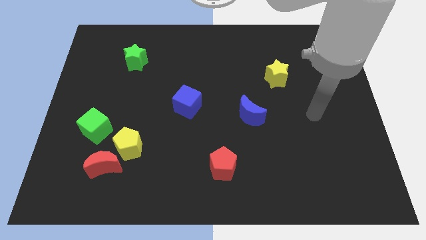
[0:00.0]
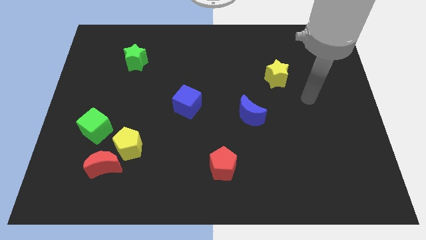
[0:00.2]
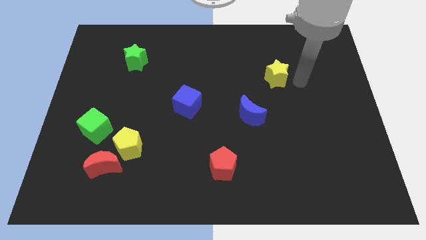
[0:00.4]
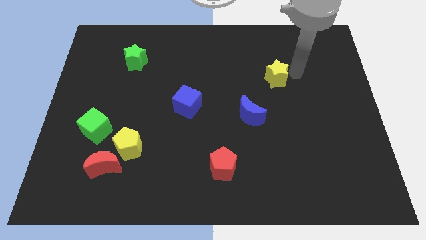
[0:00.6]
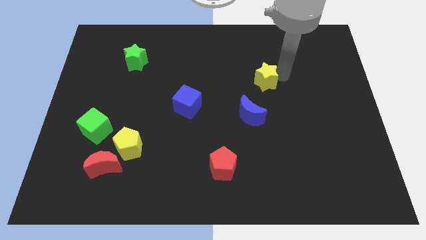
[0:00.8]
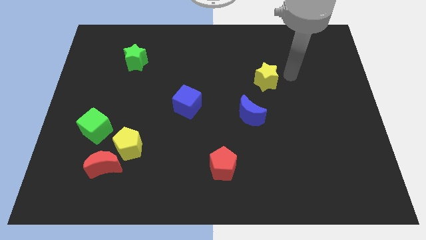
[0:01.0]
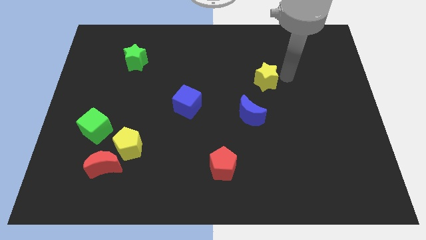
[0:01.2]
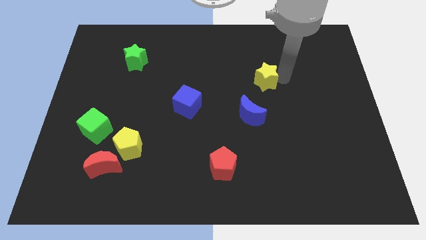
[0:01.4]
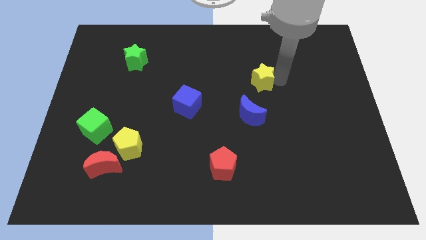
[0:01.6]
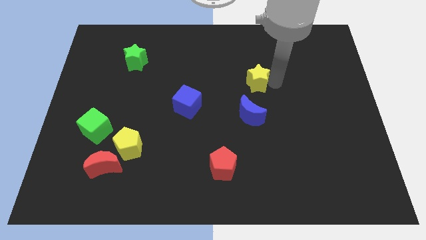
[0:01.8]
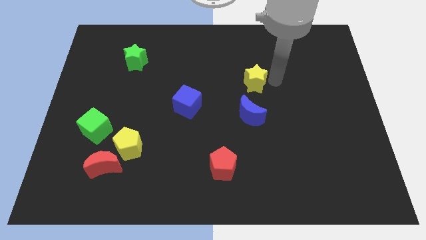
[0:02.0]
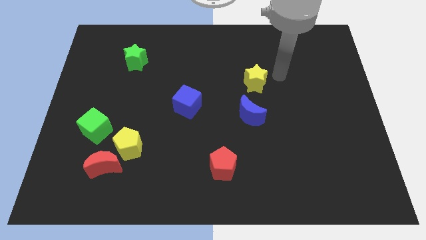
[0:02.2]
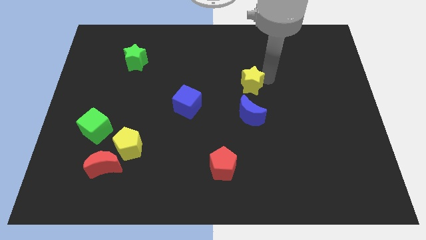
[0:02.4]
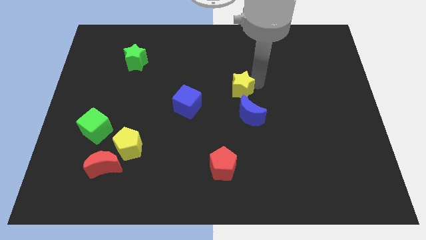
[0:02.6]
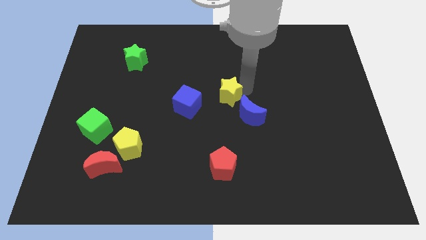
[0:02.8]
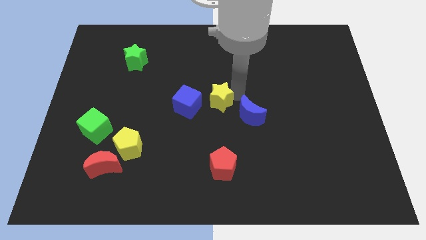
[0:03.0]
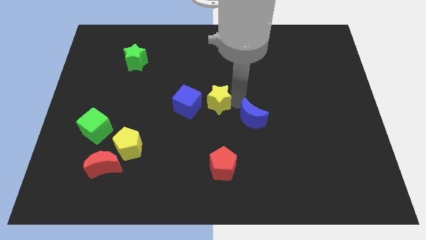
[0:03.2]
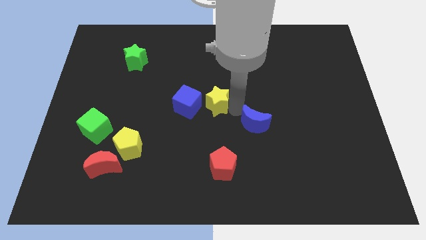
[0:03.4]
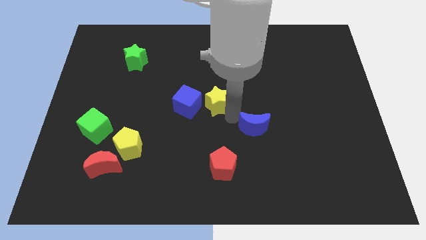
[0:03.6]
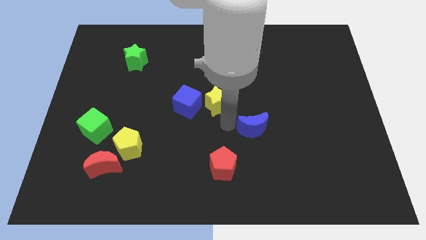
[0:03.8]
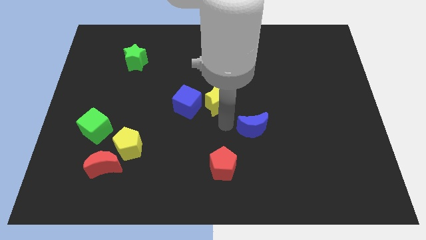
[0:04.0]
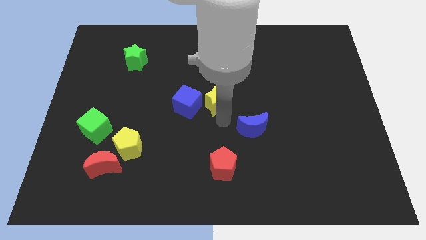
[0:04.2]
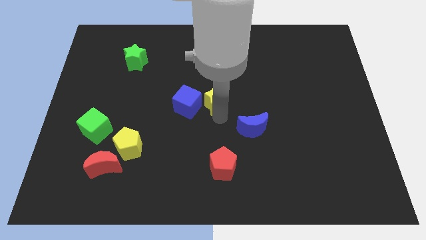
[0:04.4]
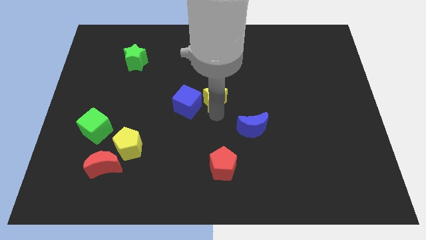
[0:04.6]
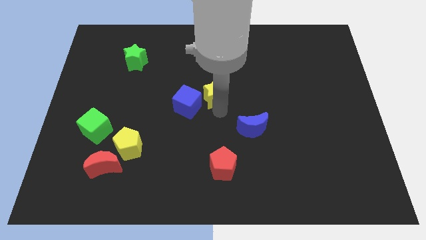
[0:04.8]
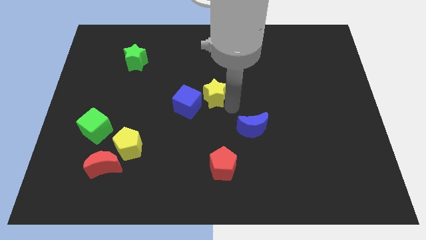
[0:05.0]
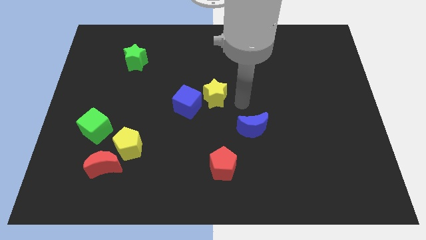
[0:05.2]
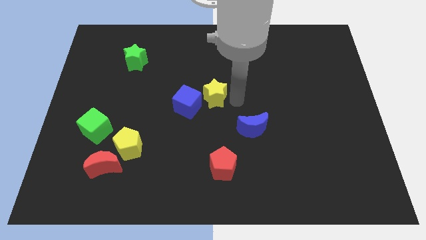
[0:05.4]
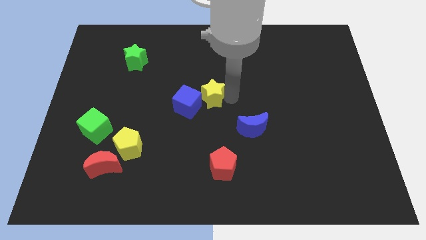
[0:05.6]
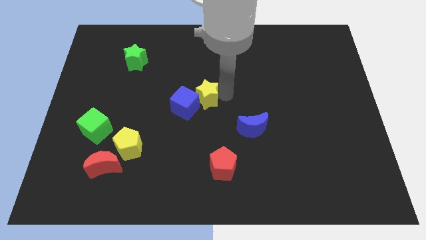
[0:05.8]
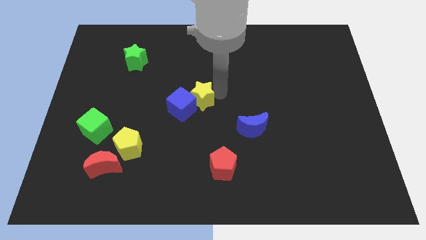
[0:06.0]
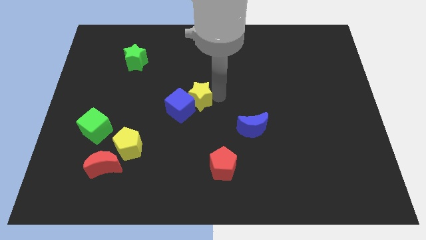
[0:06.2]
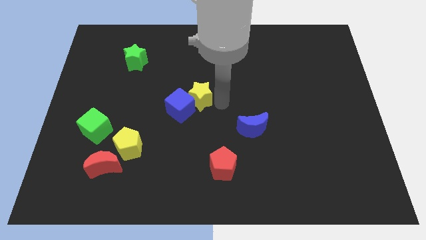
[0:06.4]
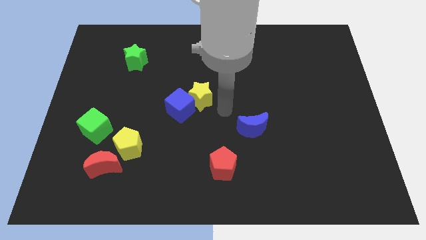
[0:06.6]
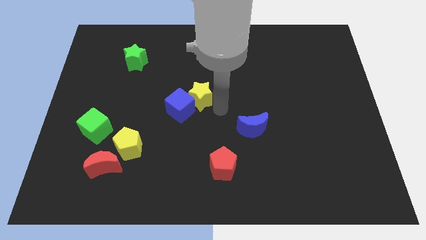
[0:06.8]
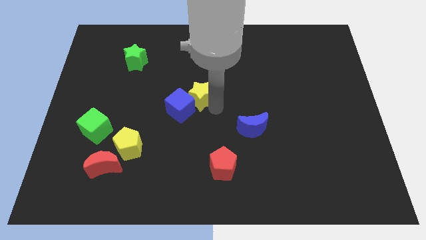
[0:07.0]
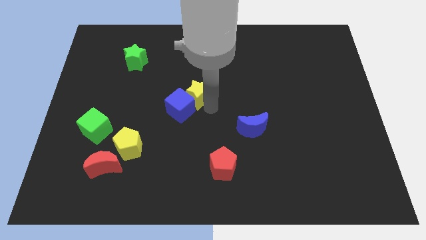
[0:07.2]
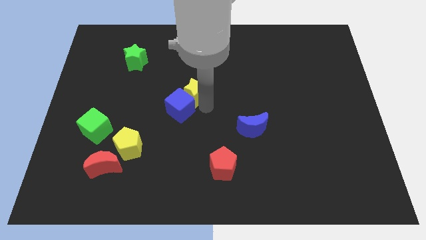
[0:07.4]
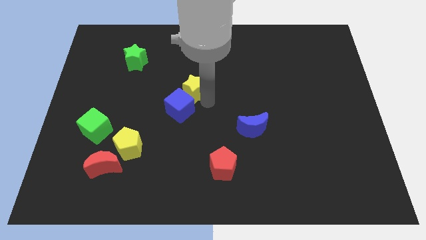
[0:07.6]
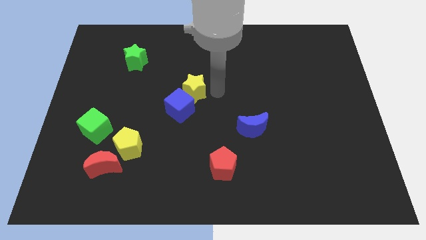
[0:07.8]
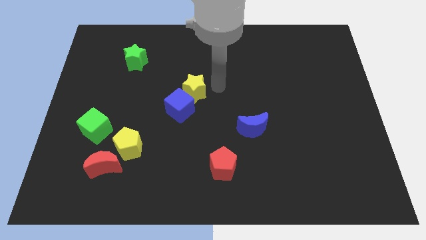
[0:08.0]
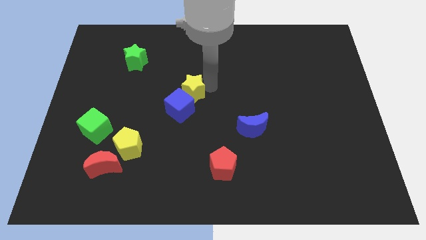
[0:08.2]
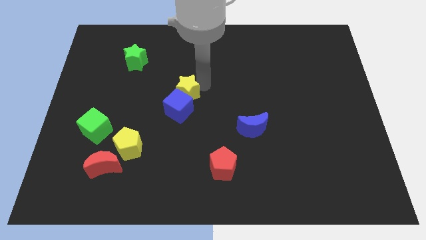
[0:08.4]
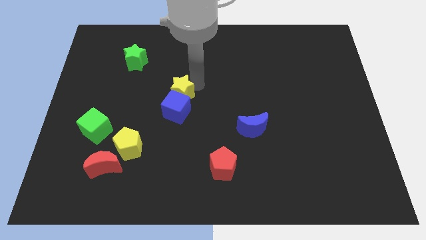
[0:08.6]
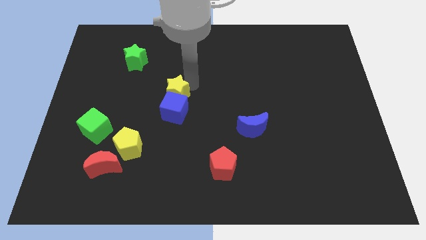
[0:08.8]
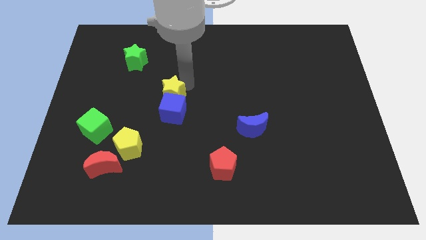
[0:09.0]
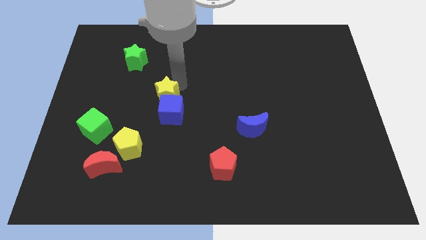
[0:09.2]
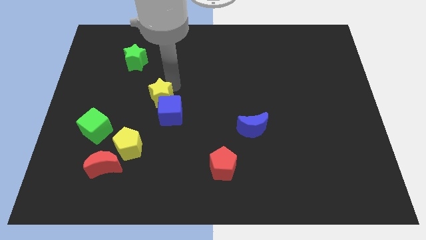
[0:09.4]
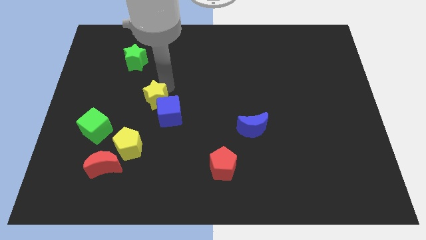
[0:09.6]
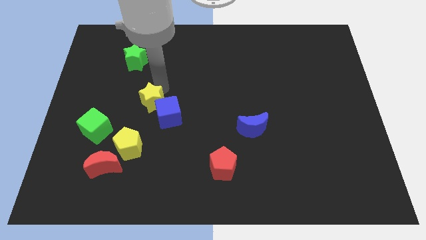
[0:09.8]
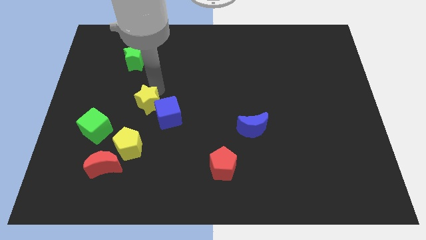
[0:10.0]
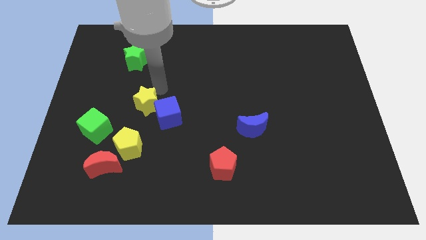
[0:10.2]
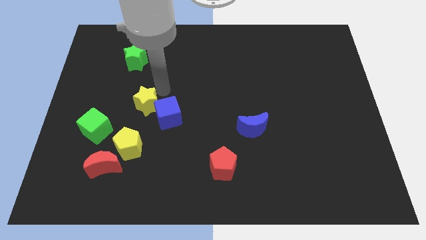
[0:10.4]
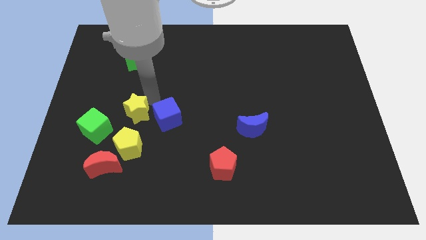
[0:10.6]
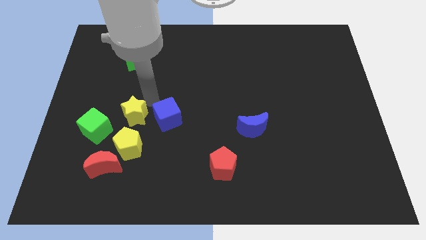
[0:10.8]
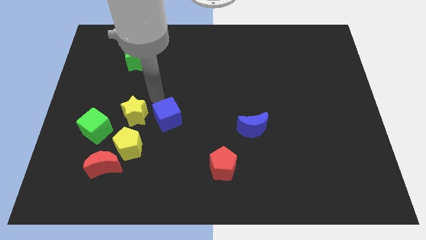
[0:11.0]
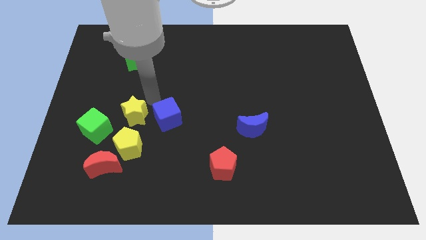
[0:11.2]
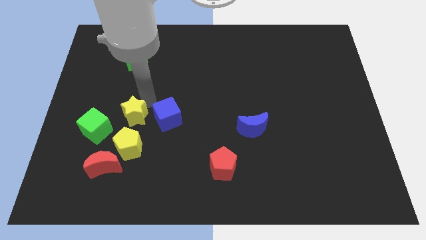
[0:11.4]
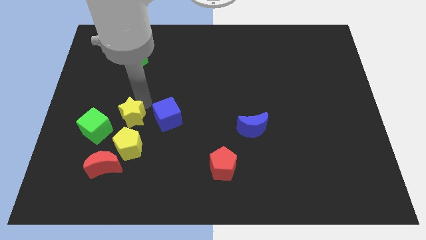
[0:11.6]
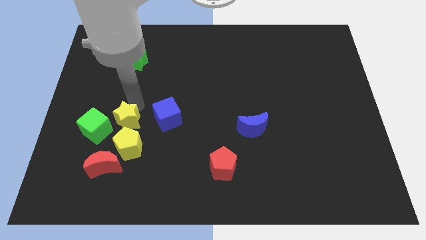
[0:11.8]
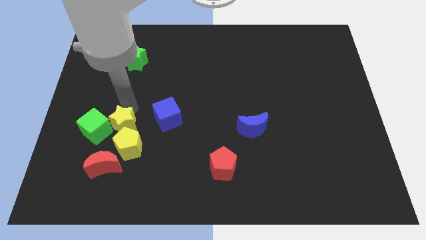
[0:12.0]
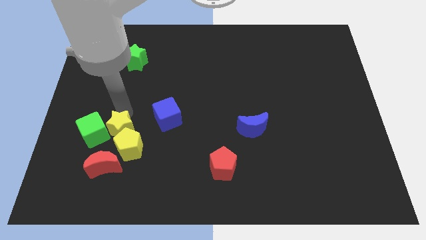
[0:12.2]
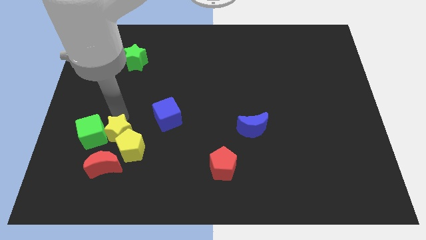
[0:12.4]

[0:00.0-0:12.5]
put the yellow star to the left side of the yellow pentagon

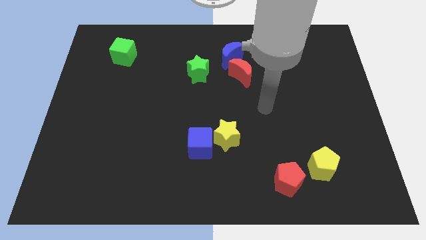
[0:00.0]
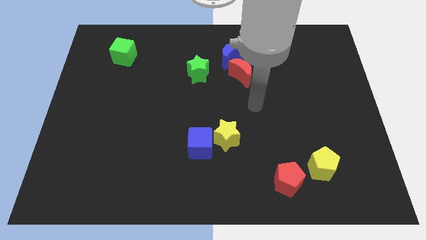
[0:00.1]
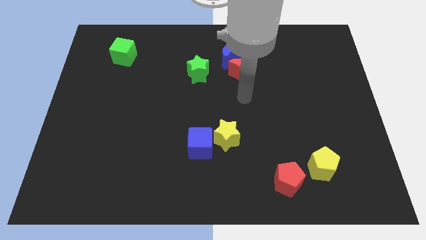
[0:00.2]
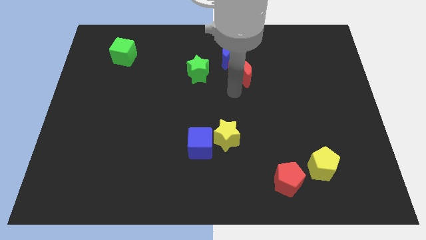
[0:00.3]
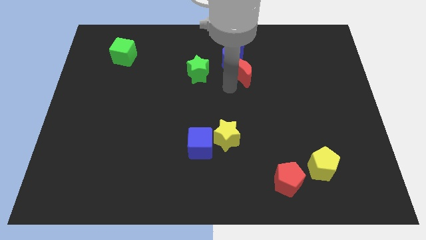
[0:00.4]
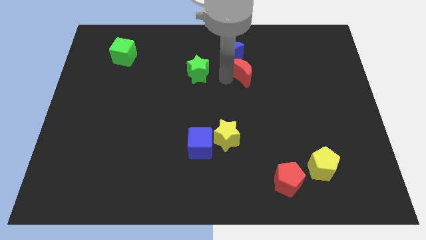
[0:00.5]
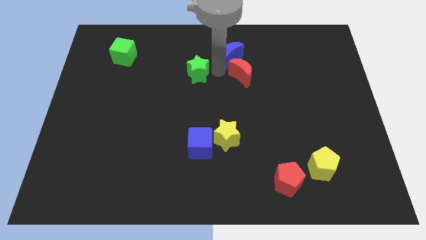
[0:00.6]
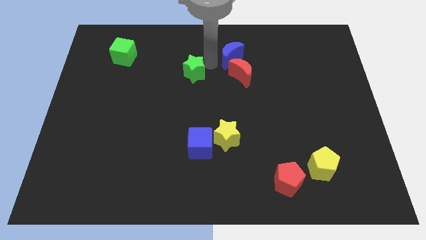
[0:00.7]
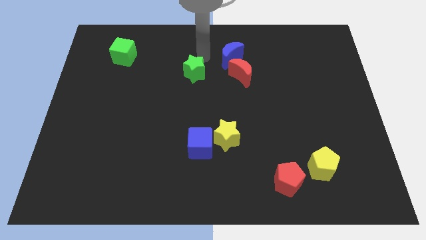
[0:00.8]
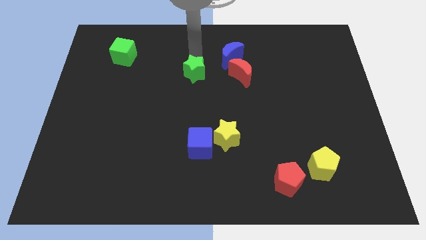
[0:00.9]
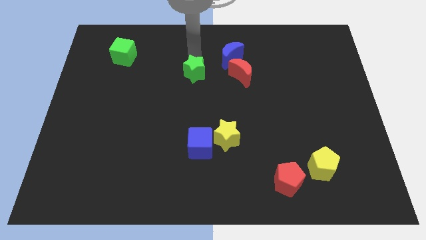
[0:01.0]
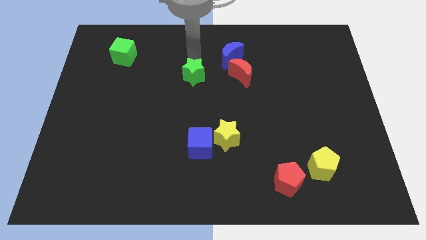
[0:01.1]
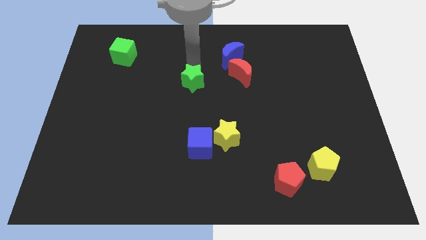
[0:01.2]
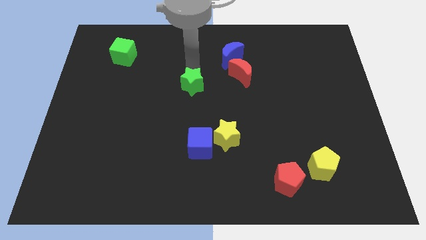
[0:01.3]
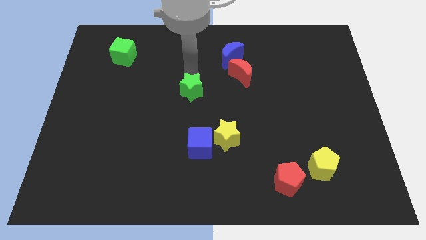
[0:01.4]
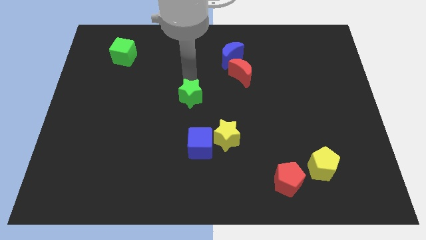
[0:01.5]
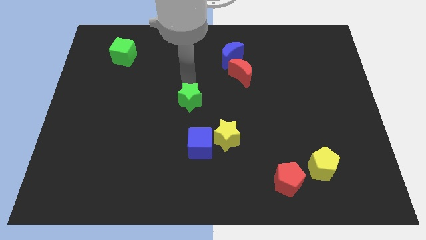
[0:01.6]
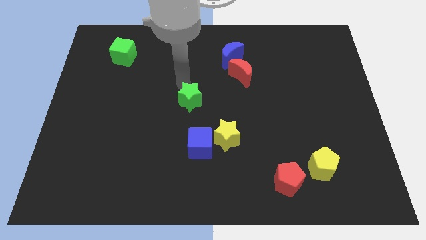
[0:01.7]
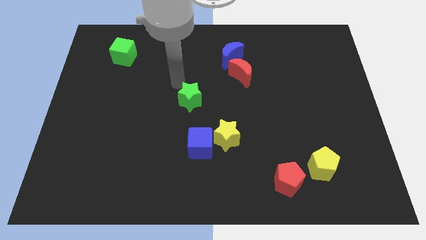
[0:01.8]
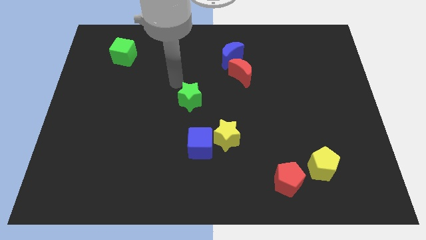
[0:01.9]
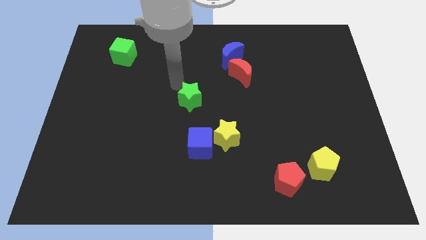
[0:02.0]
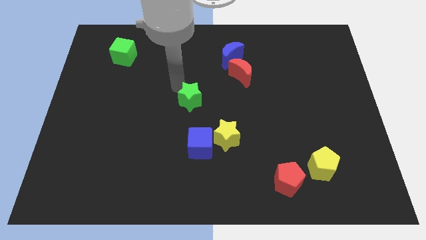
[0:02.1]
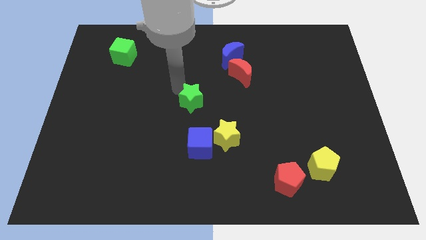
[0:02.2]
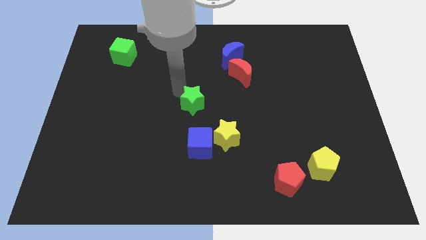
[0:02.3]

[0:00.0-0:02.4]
slide the green star to the top left of the yellow star
